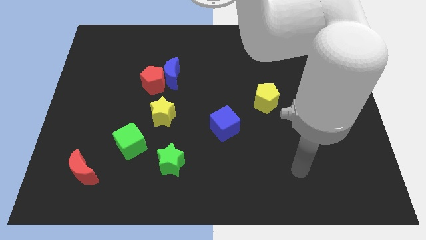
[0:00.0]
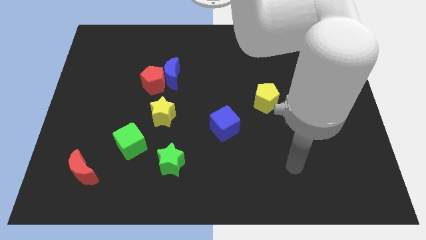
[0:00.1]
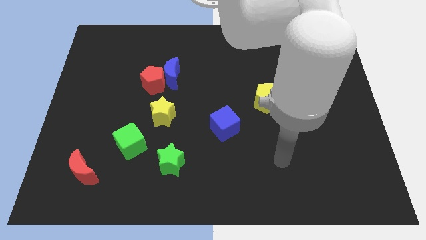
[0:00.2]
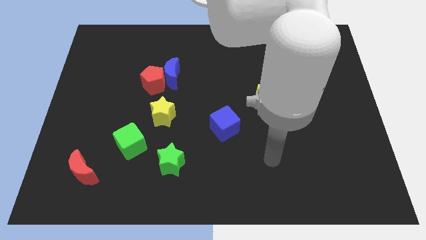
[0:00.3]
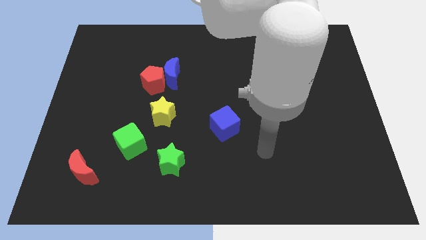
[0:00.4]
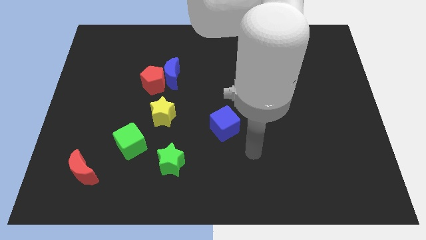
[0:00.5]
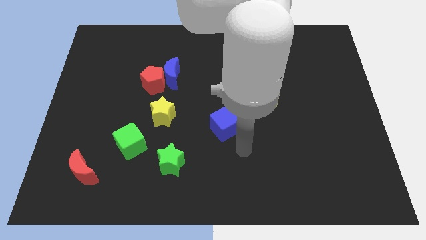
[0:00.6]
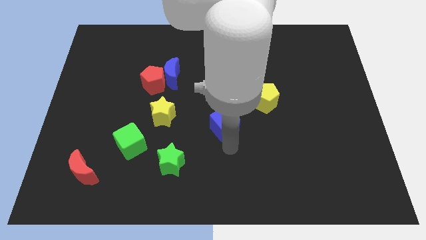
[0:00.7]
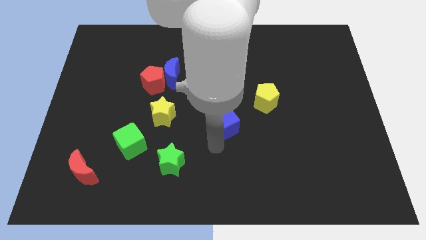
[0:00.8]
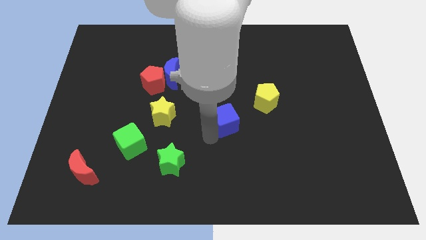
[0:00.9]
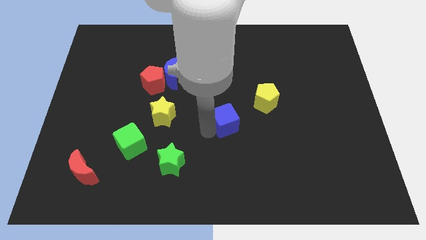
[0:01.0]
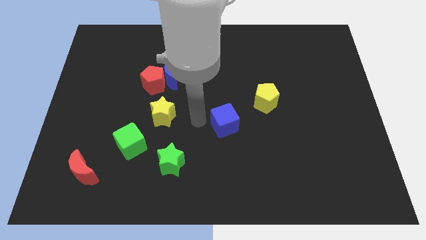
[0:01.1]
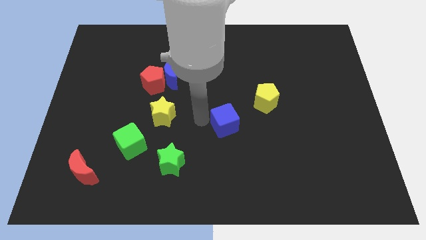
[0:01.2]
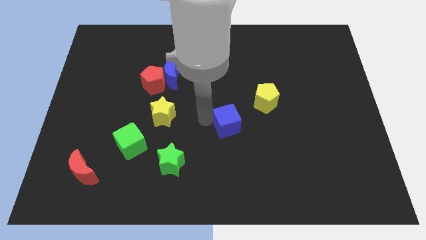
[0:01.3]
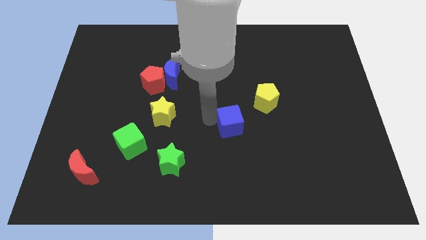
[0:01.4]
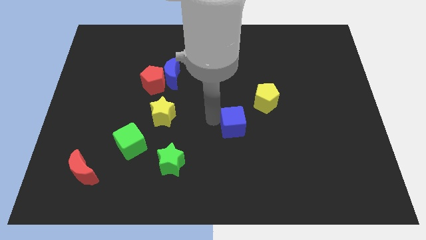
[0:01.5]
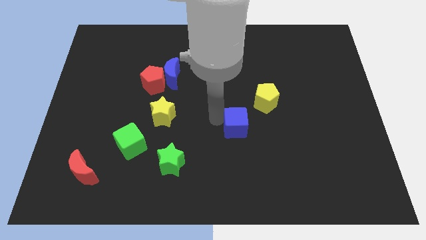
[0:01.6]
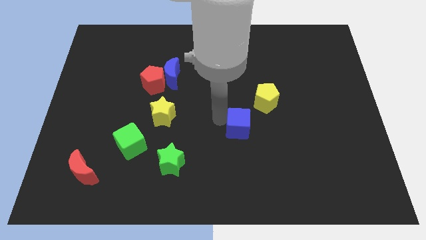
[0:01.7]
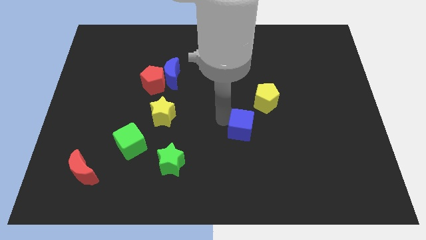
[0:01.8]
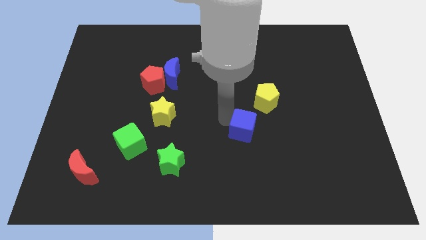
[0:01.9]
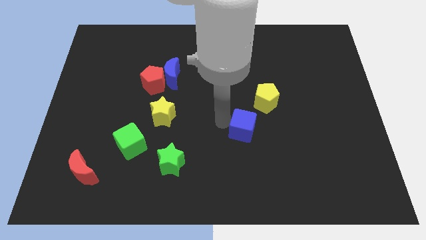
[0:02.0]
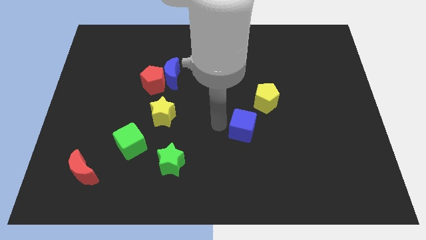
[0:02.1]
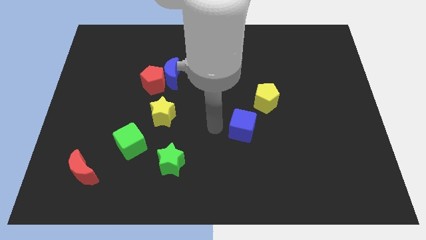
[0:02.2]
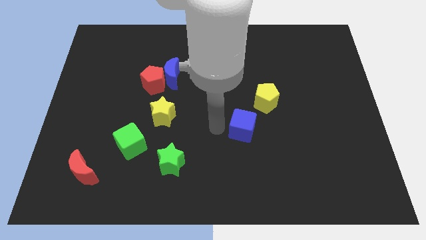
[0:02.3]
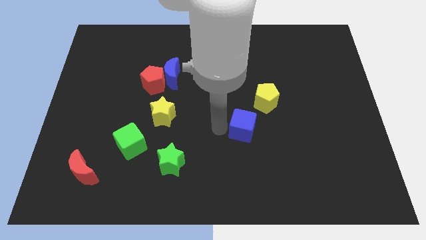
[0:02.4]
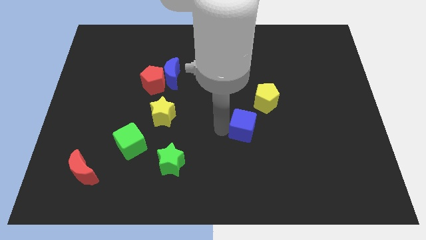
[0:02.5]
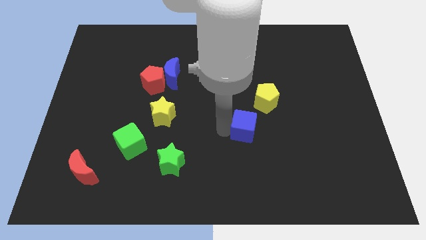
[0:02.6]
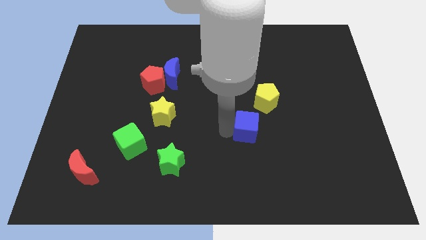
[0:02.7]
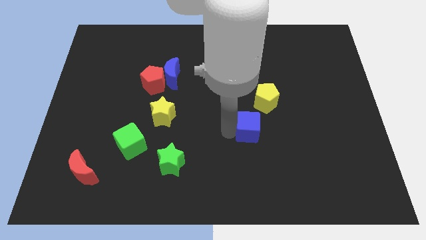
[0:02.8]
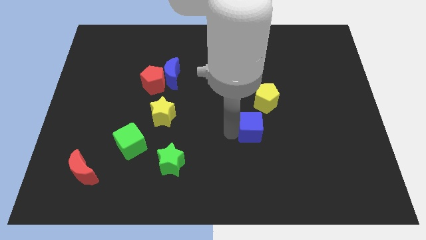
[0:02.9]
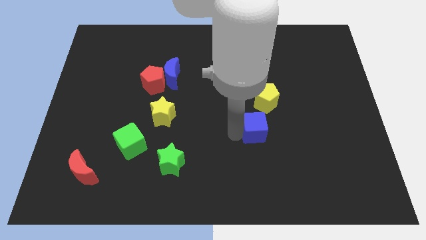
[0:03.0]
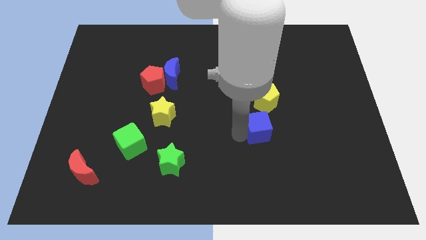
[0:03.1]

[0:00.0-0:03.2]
push the blue cube a little bit to the right

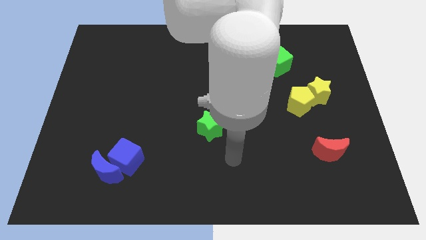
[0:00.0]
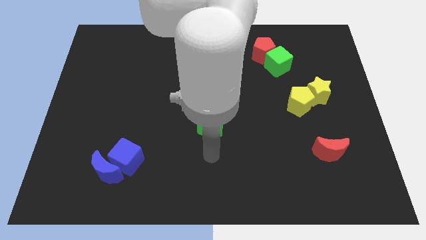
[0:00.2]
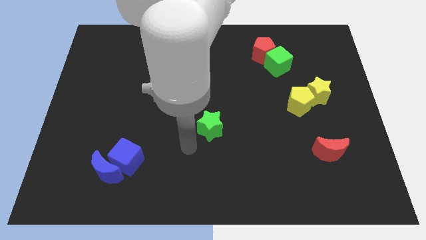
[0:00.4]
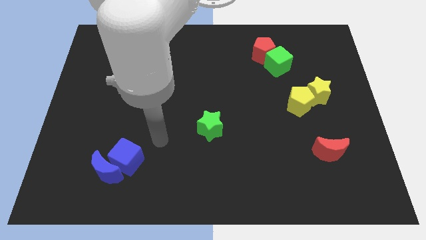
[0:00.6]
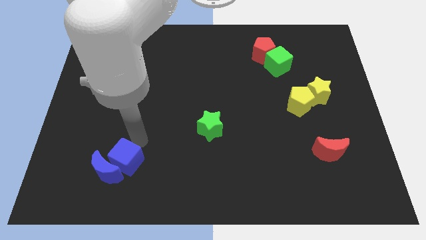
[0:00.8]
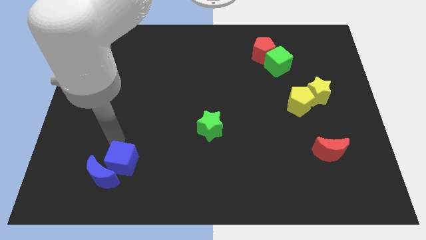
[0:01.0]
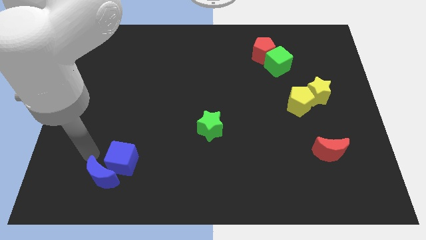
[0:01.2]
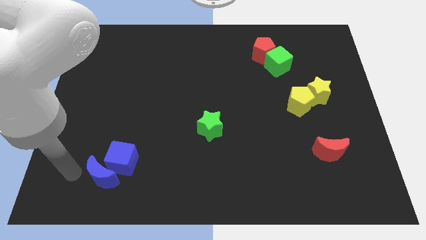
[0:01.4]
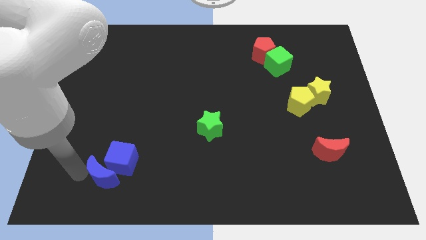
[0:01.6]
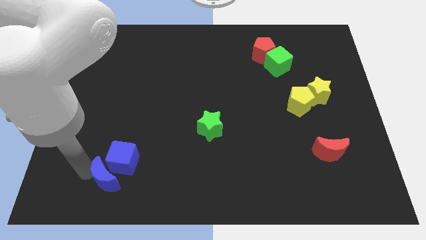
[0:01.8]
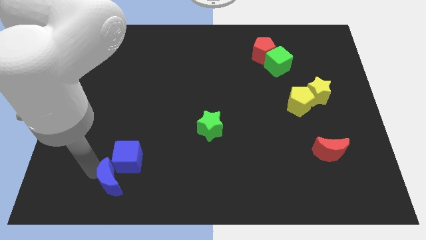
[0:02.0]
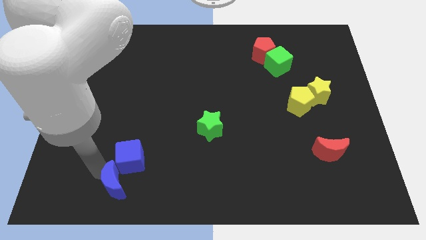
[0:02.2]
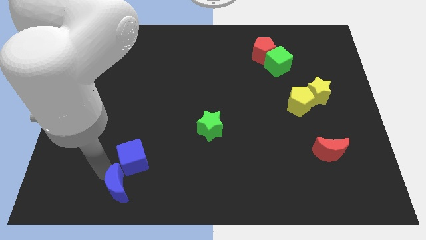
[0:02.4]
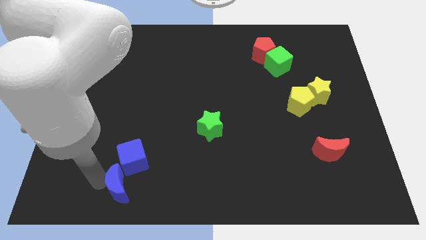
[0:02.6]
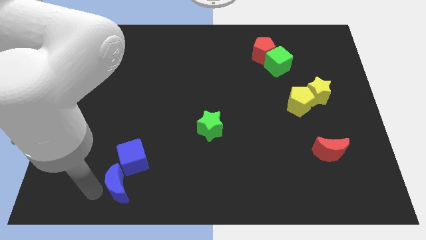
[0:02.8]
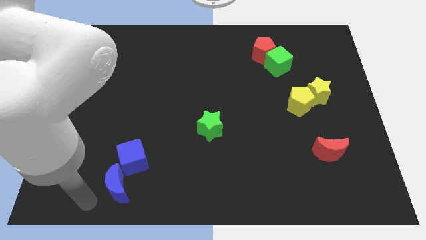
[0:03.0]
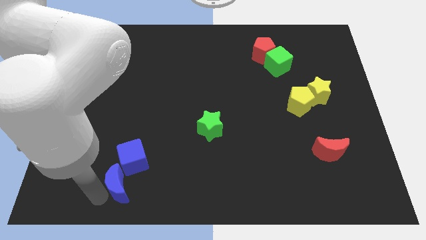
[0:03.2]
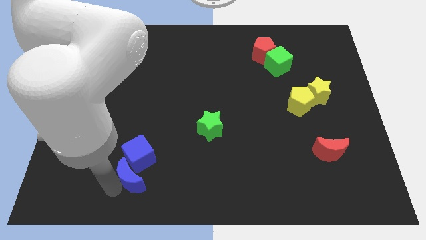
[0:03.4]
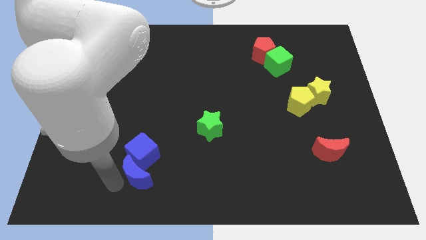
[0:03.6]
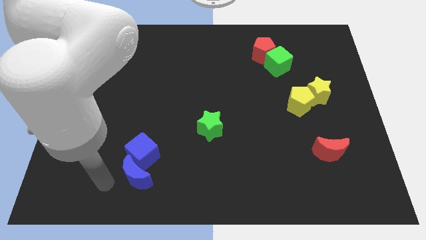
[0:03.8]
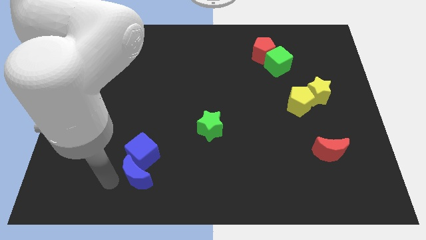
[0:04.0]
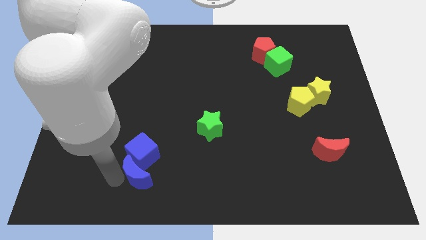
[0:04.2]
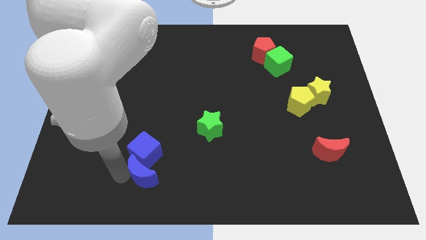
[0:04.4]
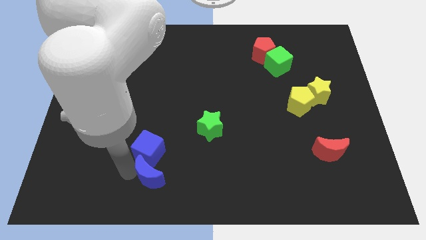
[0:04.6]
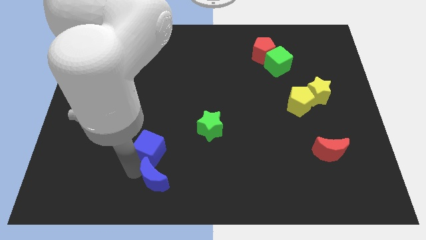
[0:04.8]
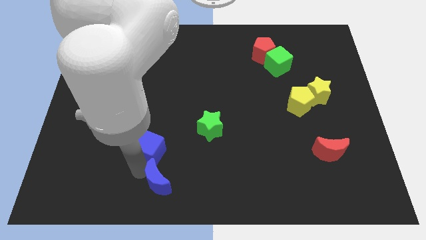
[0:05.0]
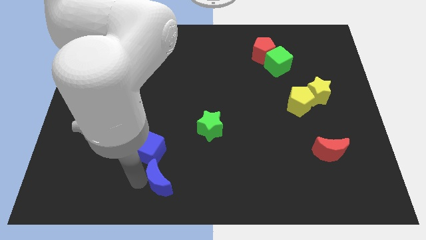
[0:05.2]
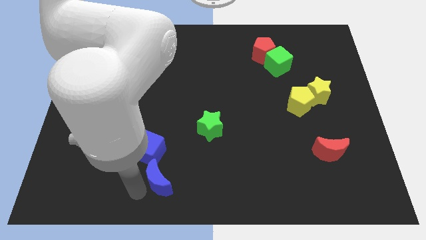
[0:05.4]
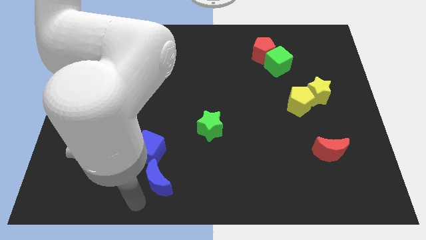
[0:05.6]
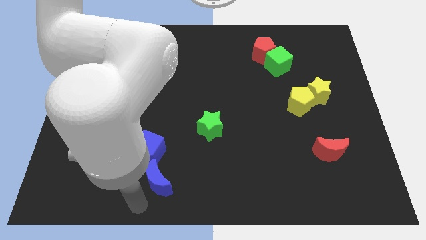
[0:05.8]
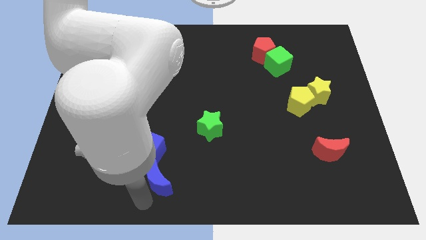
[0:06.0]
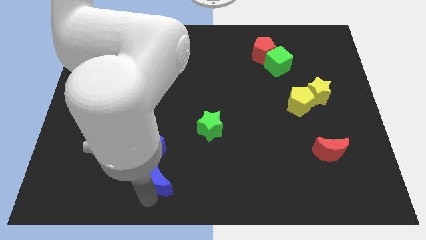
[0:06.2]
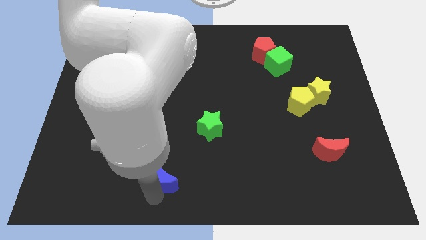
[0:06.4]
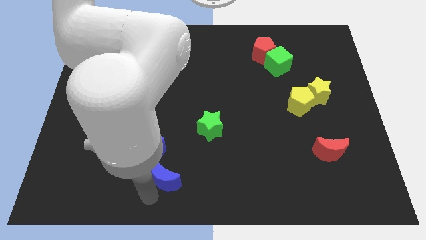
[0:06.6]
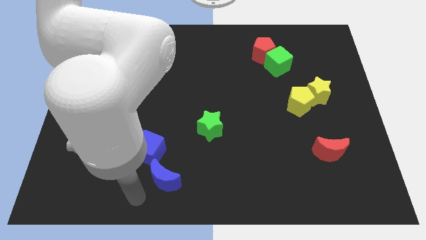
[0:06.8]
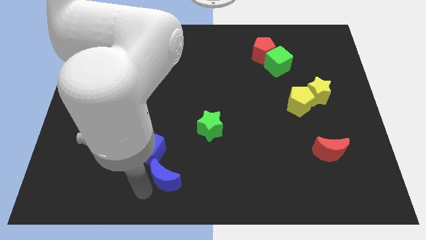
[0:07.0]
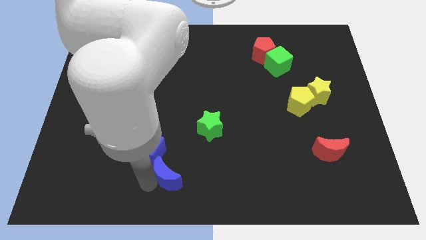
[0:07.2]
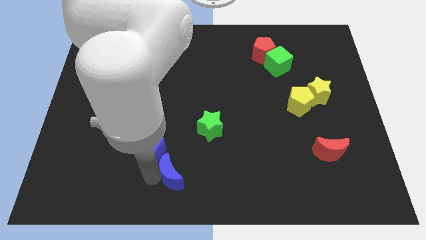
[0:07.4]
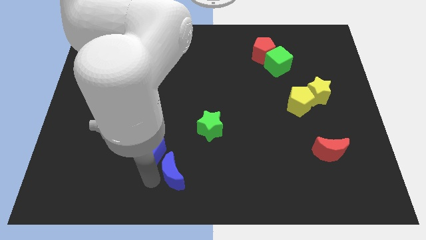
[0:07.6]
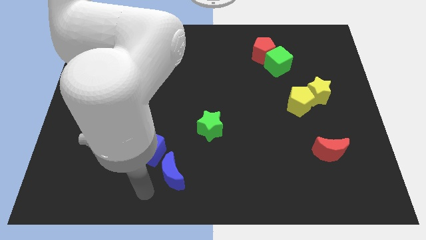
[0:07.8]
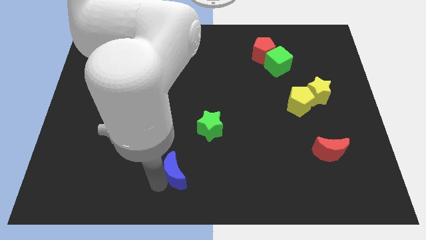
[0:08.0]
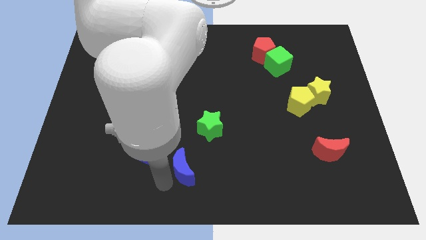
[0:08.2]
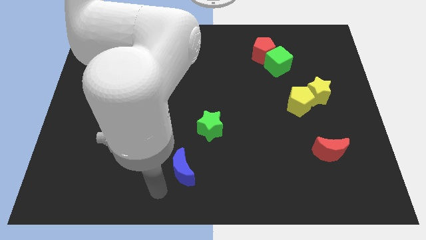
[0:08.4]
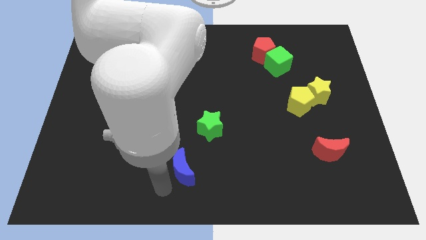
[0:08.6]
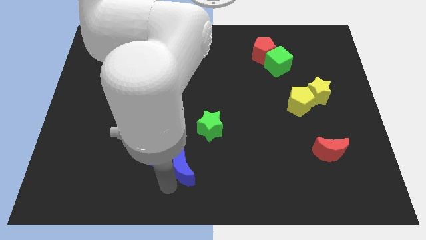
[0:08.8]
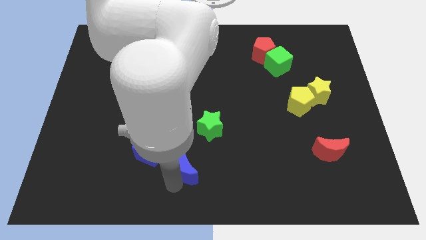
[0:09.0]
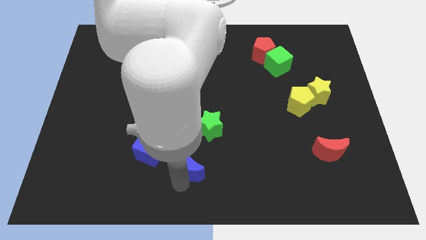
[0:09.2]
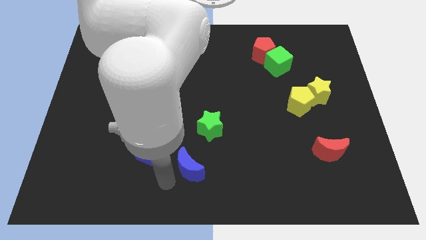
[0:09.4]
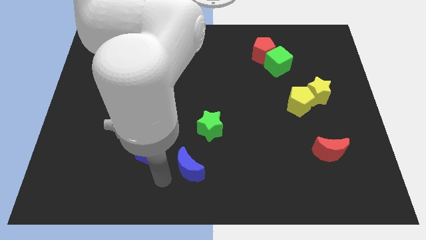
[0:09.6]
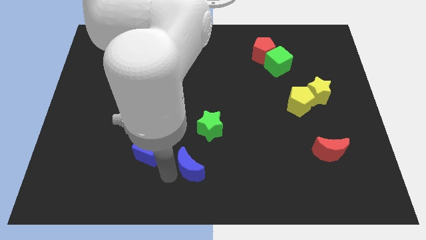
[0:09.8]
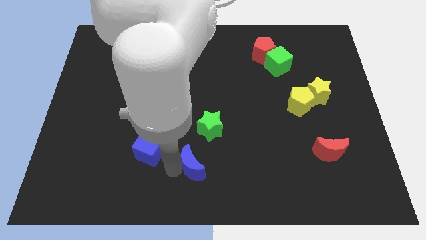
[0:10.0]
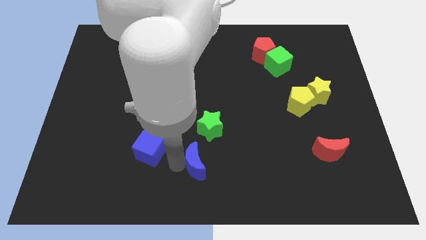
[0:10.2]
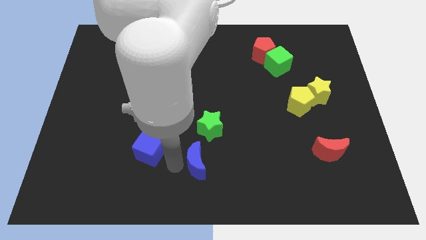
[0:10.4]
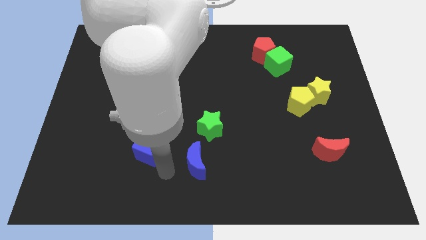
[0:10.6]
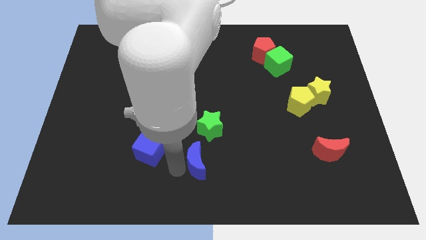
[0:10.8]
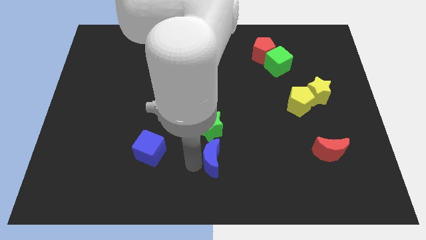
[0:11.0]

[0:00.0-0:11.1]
push the blue moon right
